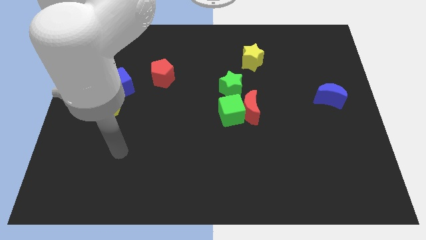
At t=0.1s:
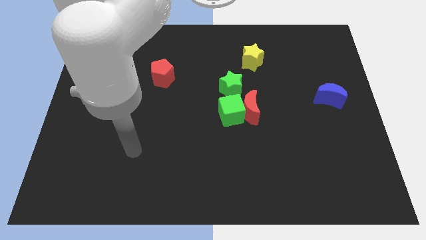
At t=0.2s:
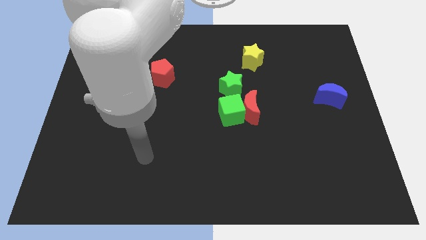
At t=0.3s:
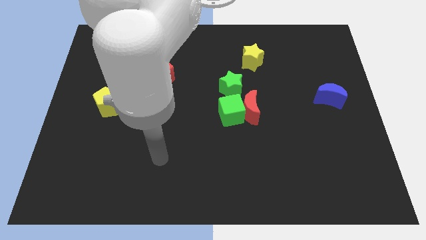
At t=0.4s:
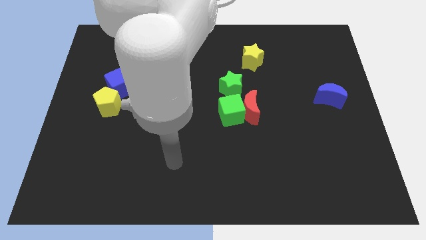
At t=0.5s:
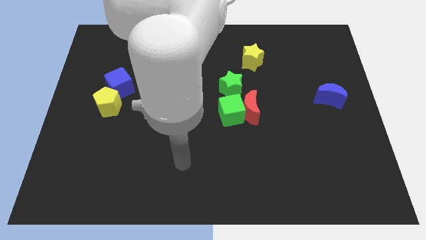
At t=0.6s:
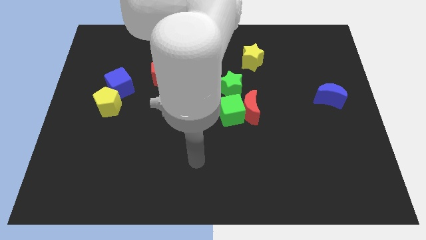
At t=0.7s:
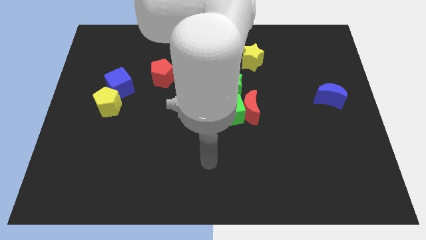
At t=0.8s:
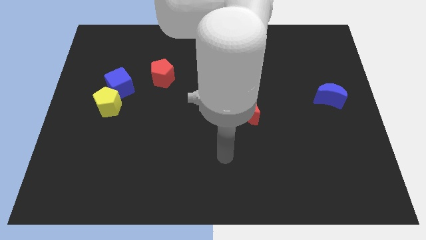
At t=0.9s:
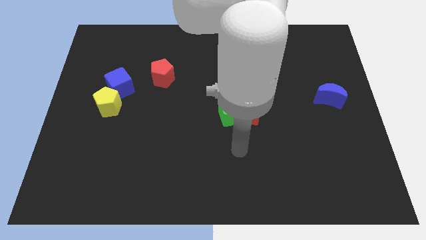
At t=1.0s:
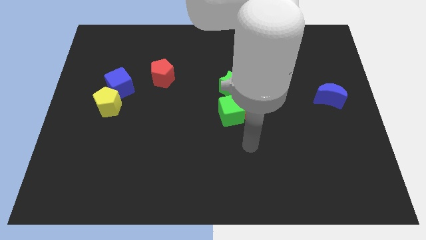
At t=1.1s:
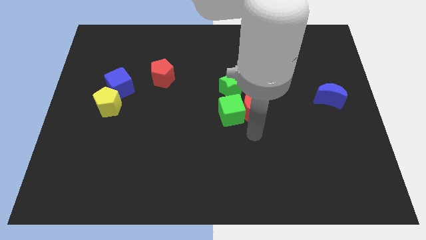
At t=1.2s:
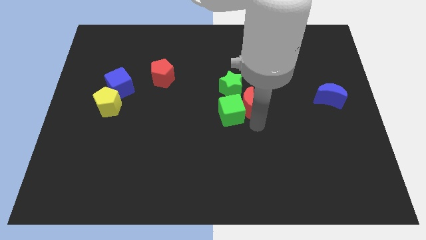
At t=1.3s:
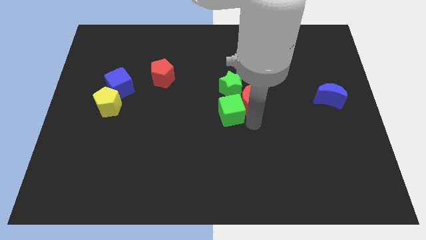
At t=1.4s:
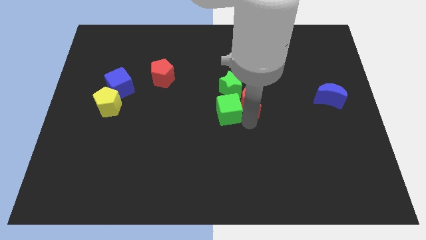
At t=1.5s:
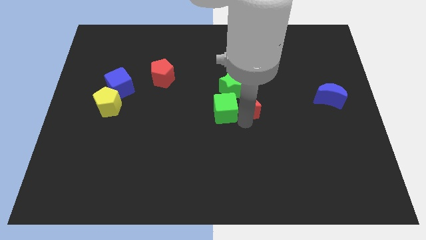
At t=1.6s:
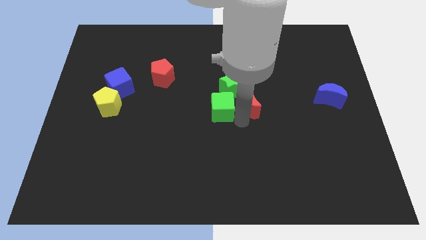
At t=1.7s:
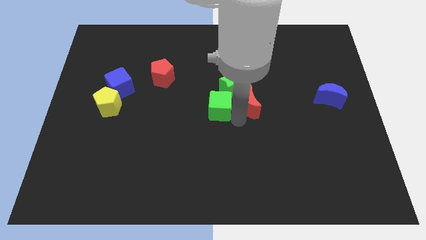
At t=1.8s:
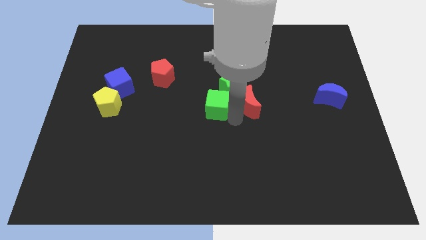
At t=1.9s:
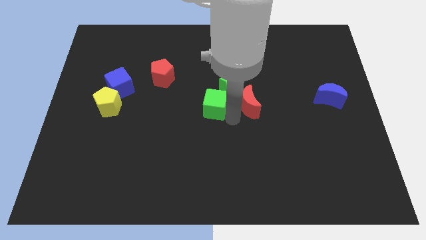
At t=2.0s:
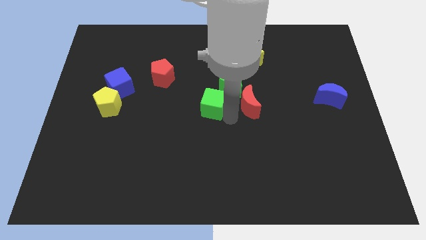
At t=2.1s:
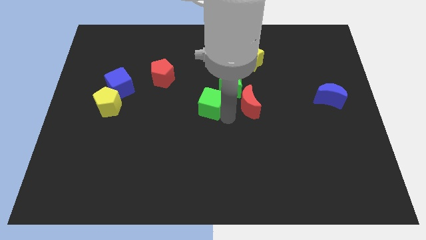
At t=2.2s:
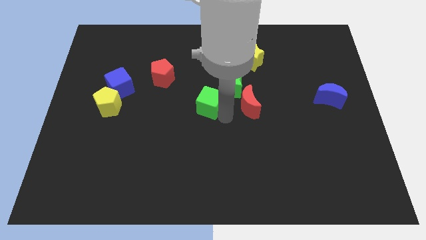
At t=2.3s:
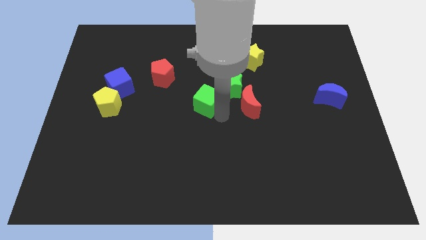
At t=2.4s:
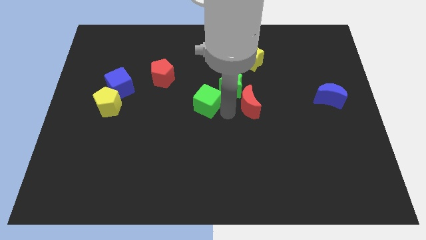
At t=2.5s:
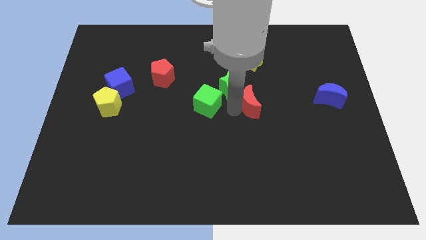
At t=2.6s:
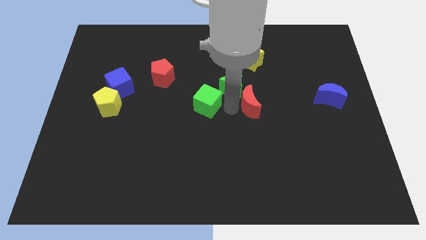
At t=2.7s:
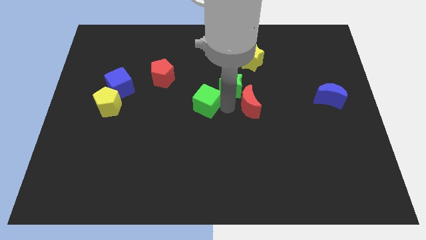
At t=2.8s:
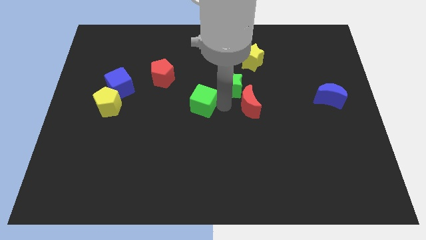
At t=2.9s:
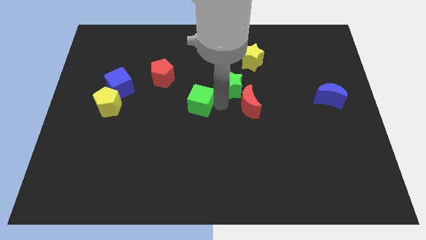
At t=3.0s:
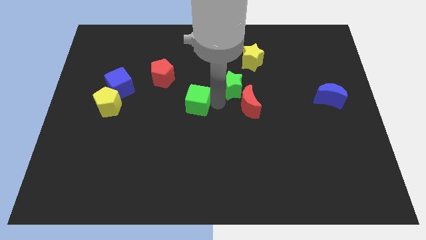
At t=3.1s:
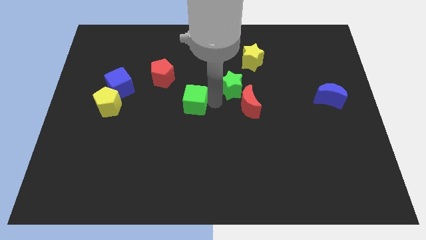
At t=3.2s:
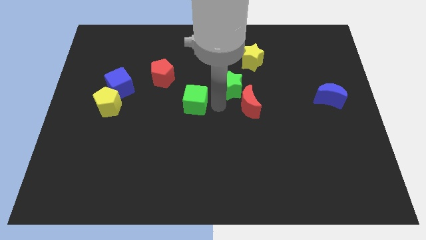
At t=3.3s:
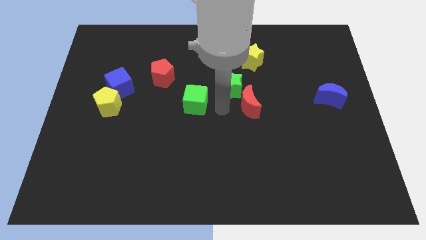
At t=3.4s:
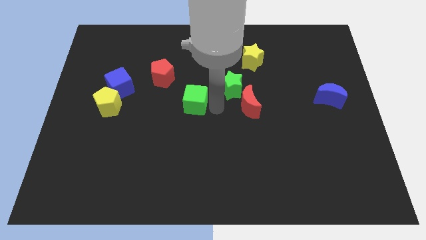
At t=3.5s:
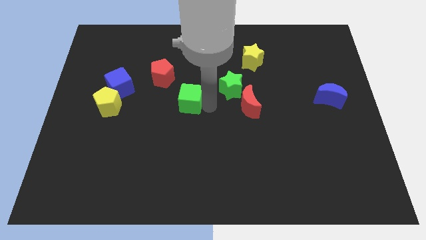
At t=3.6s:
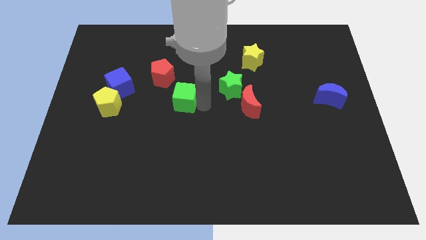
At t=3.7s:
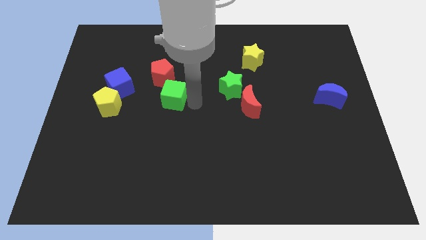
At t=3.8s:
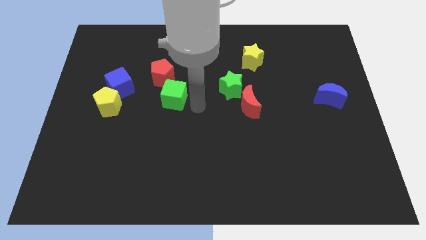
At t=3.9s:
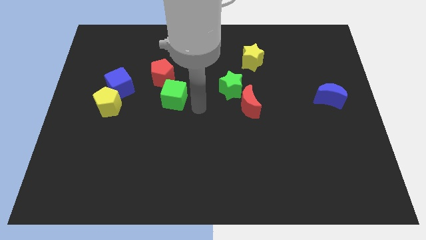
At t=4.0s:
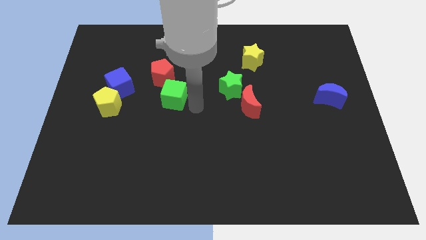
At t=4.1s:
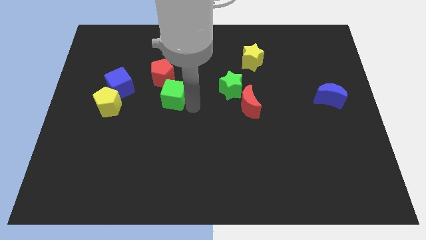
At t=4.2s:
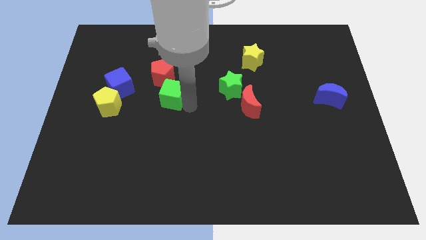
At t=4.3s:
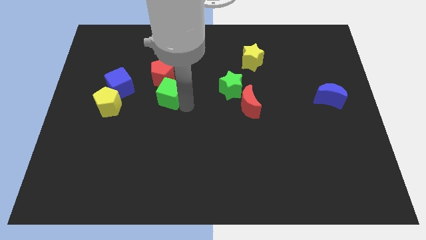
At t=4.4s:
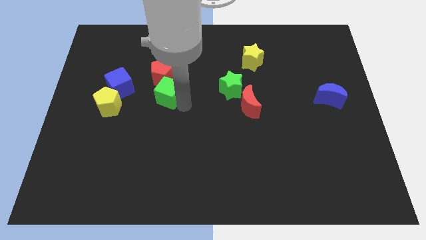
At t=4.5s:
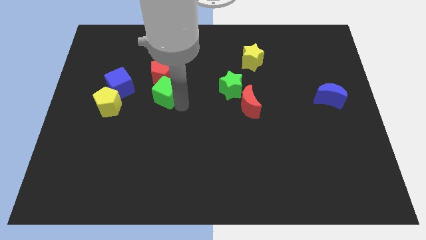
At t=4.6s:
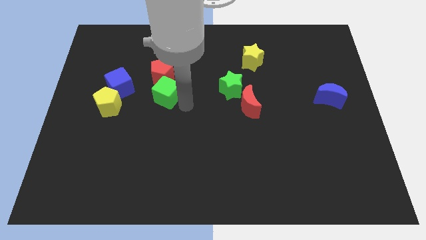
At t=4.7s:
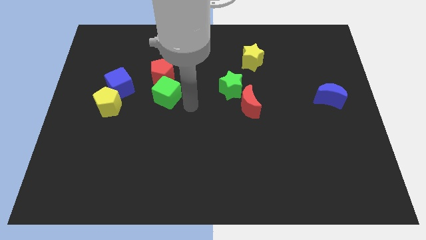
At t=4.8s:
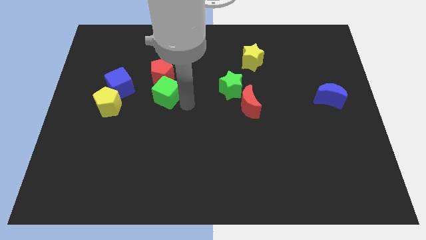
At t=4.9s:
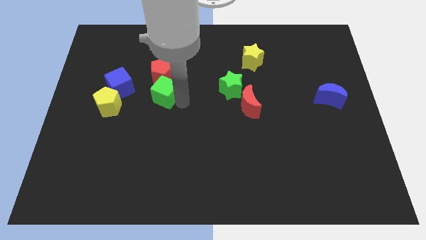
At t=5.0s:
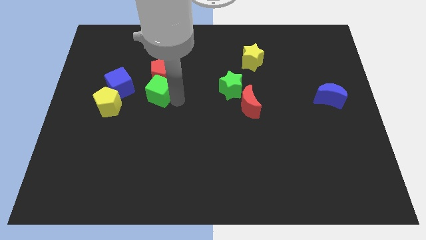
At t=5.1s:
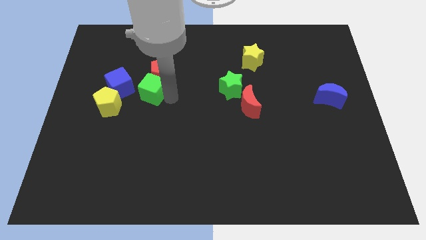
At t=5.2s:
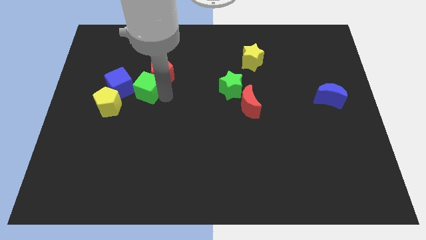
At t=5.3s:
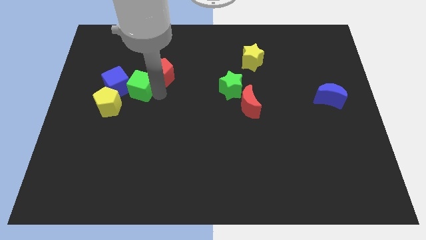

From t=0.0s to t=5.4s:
put the green cube towards the blue cube

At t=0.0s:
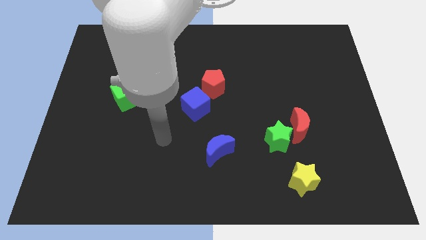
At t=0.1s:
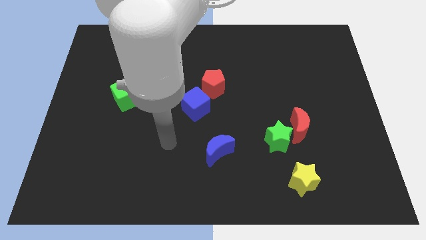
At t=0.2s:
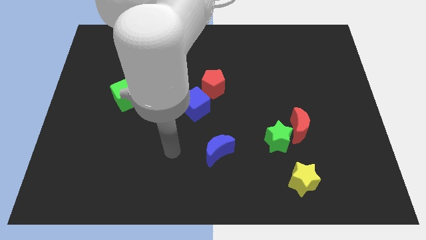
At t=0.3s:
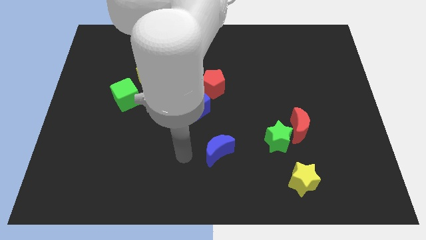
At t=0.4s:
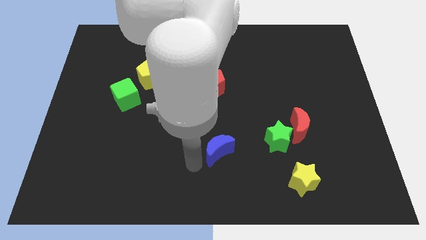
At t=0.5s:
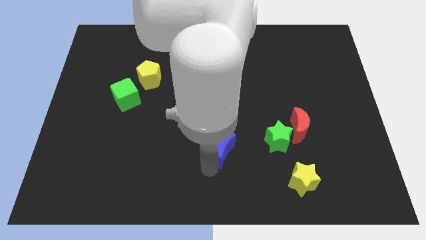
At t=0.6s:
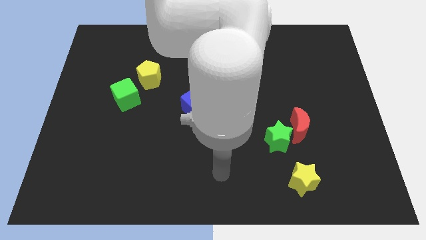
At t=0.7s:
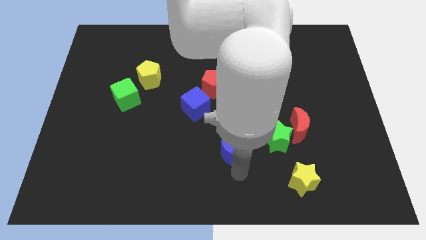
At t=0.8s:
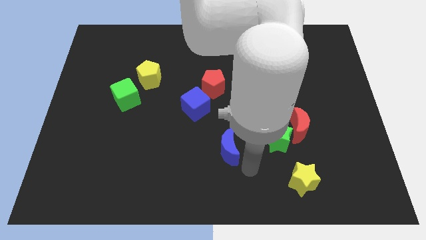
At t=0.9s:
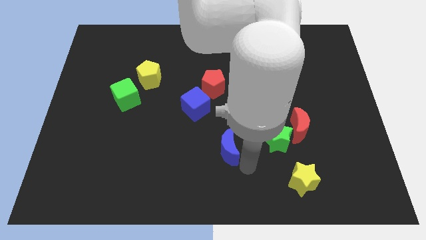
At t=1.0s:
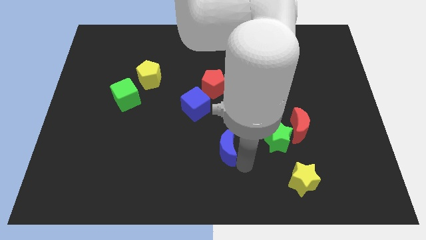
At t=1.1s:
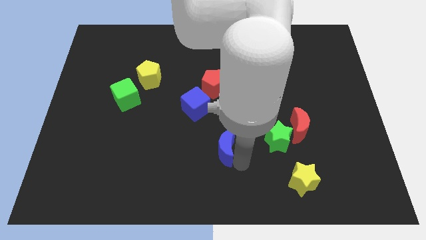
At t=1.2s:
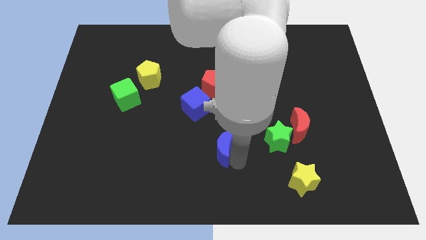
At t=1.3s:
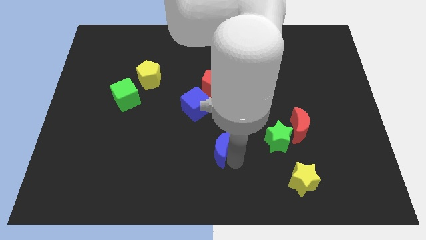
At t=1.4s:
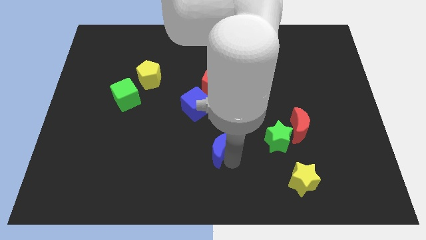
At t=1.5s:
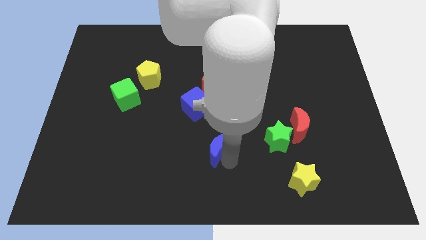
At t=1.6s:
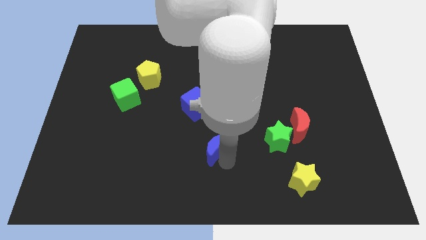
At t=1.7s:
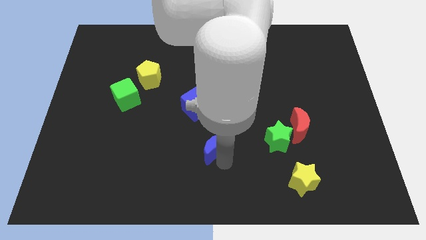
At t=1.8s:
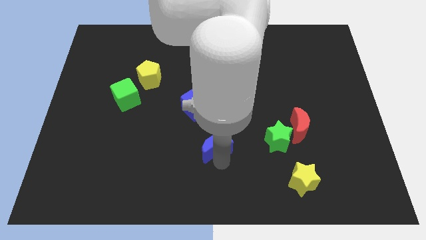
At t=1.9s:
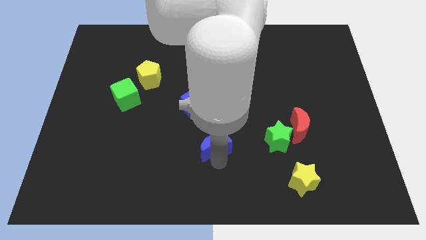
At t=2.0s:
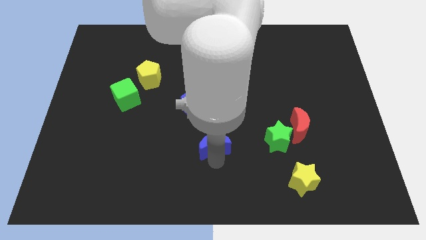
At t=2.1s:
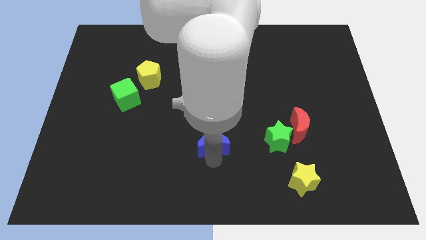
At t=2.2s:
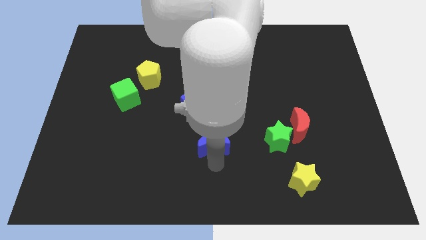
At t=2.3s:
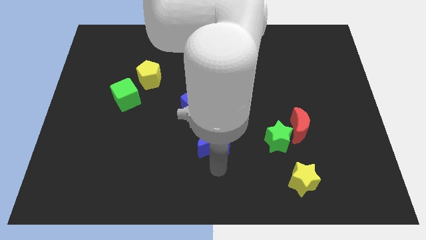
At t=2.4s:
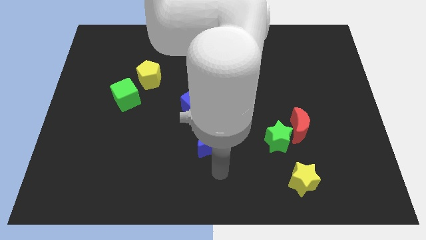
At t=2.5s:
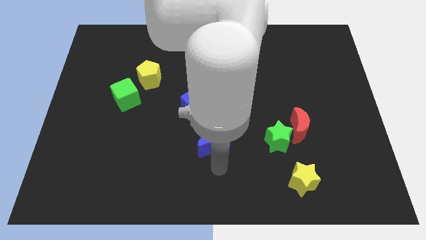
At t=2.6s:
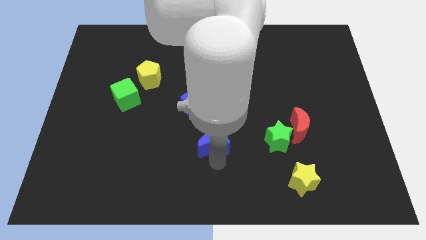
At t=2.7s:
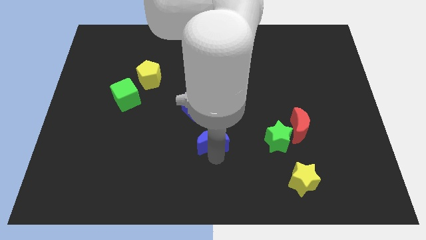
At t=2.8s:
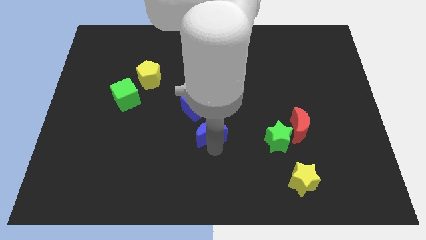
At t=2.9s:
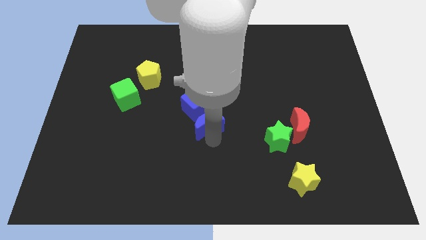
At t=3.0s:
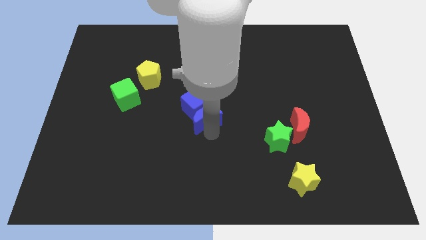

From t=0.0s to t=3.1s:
slide the blue moon close to the blue cube

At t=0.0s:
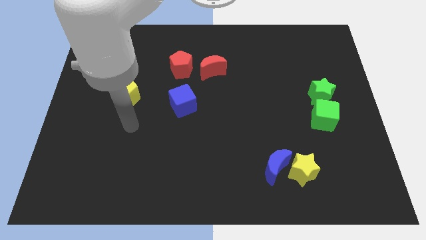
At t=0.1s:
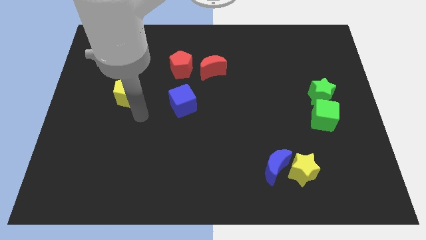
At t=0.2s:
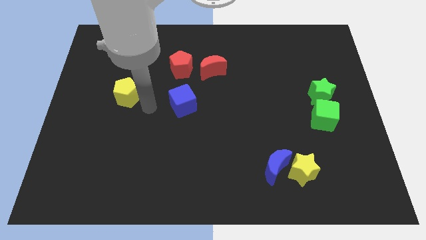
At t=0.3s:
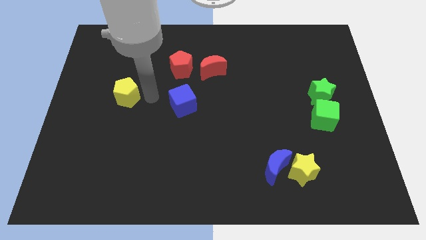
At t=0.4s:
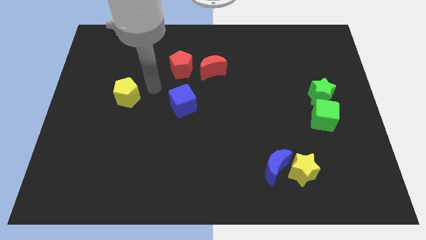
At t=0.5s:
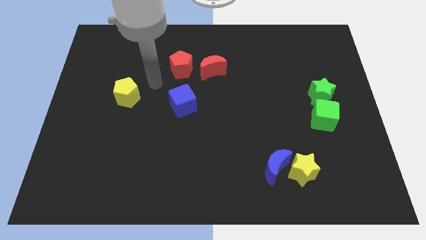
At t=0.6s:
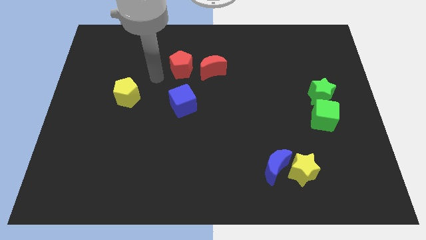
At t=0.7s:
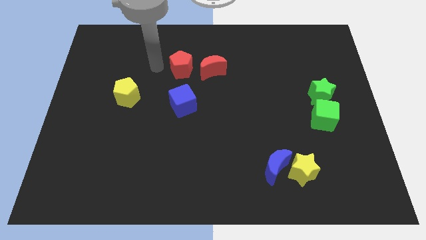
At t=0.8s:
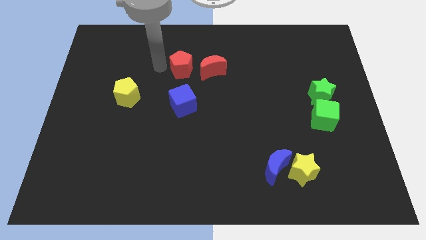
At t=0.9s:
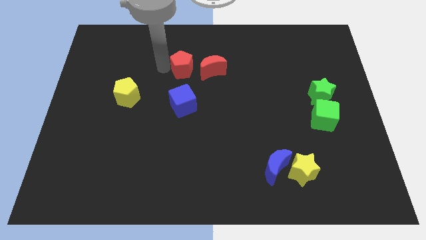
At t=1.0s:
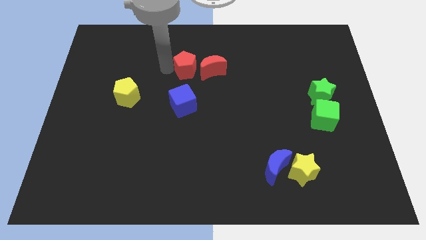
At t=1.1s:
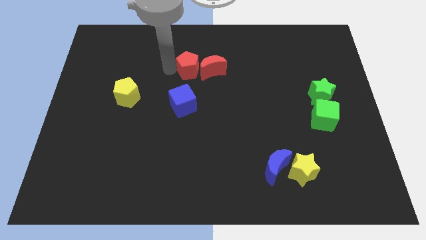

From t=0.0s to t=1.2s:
move the red pentagon towards the red moon
